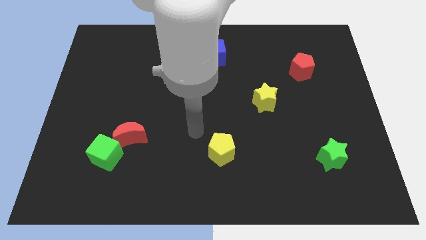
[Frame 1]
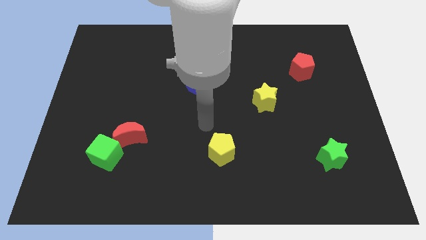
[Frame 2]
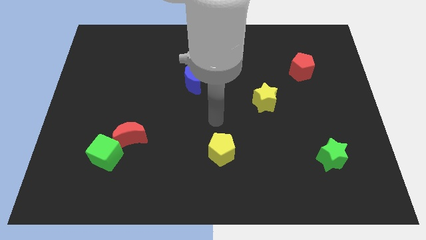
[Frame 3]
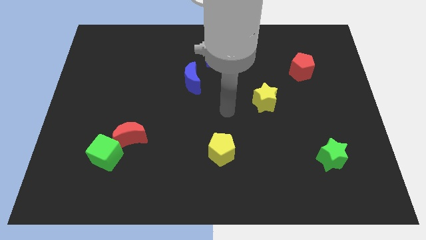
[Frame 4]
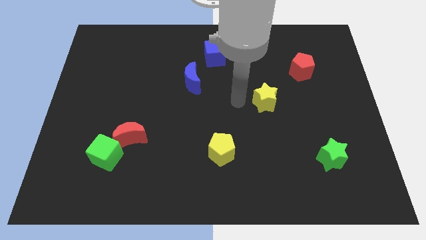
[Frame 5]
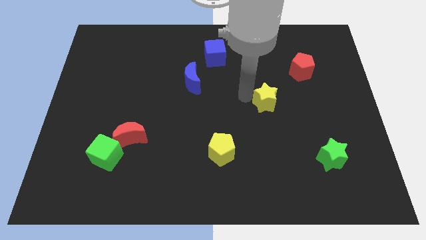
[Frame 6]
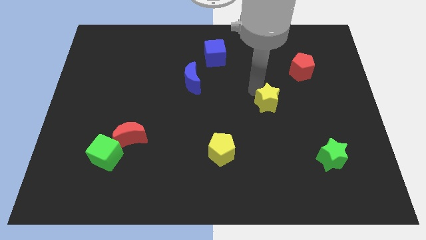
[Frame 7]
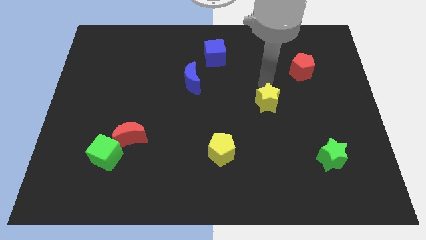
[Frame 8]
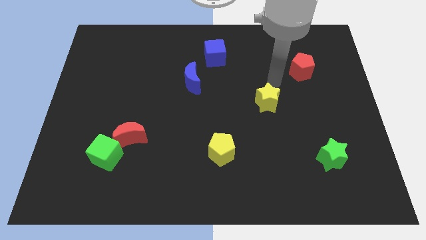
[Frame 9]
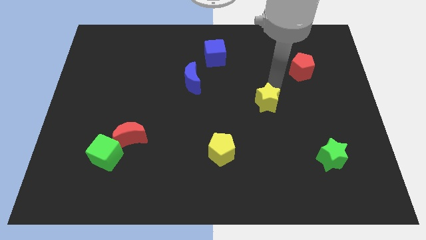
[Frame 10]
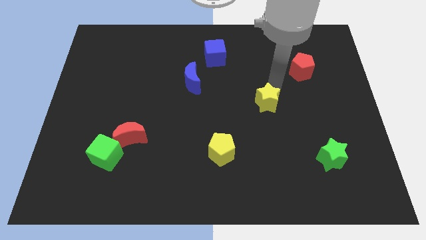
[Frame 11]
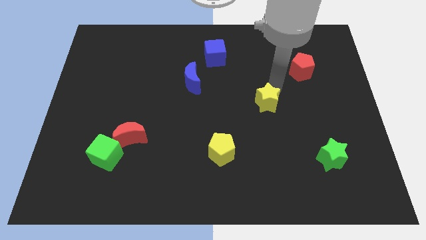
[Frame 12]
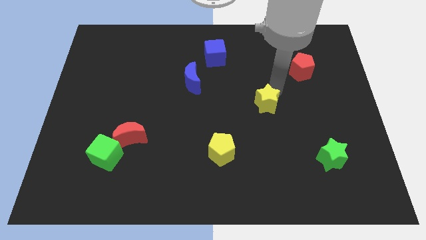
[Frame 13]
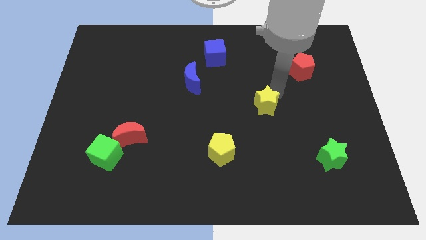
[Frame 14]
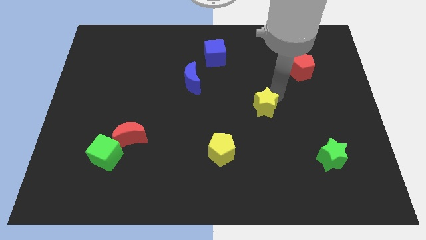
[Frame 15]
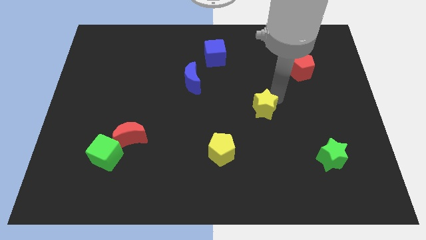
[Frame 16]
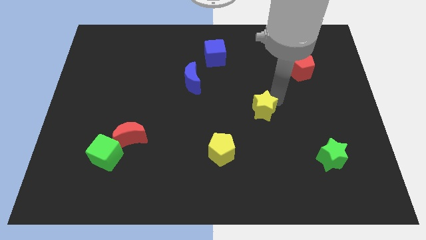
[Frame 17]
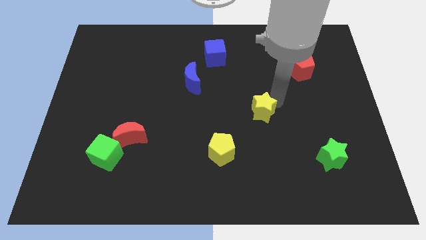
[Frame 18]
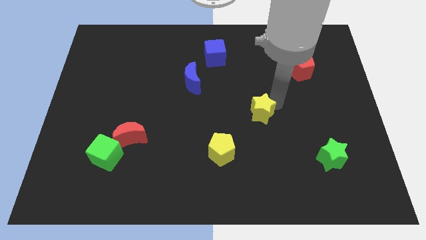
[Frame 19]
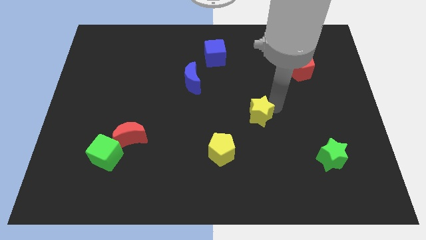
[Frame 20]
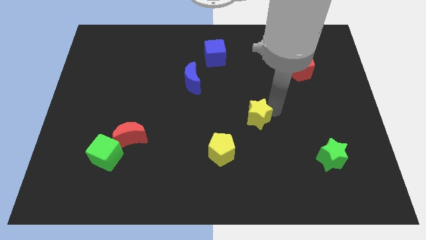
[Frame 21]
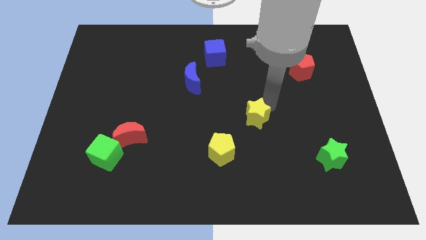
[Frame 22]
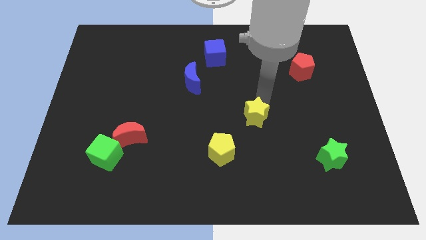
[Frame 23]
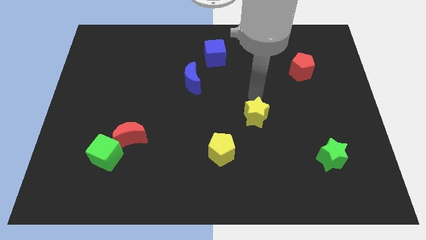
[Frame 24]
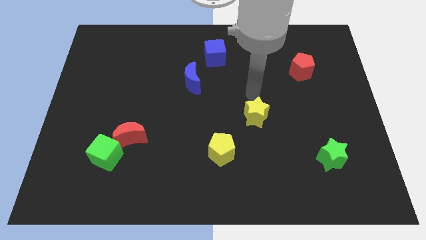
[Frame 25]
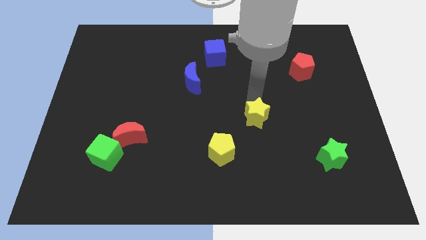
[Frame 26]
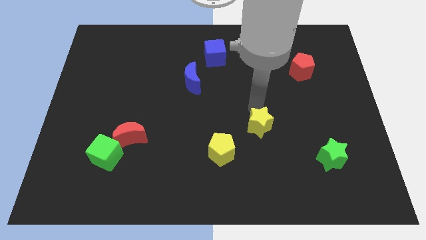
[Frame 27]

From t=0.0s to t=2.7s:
slightly slide the yellow star down

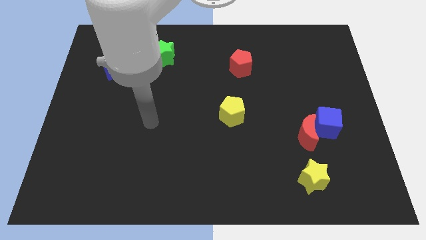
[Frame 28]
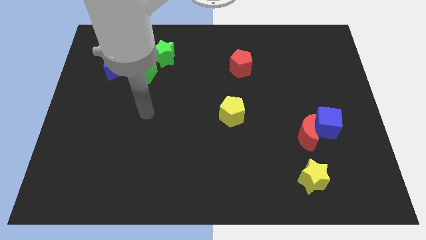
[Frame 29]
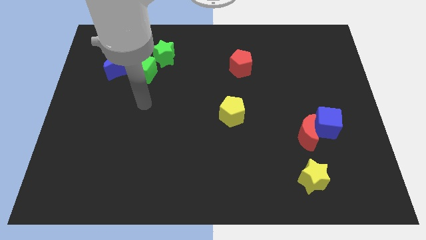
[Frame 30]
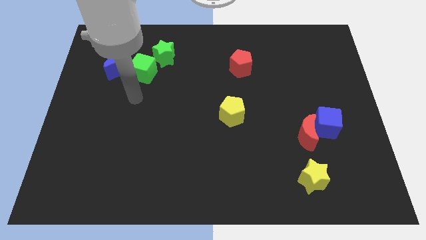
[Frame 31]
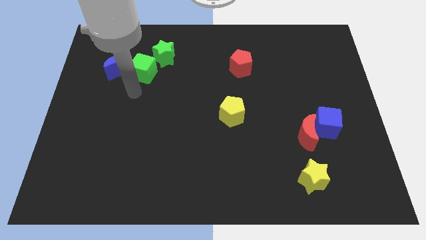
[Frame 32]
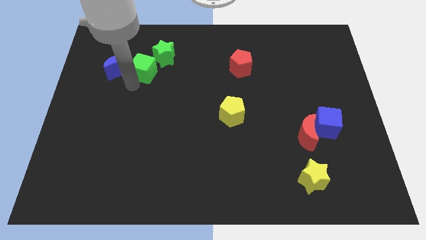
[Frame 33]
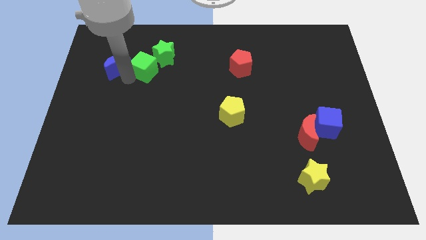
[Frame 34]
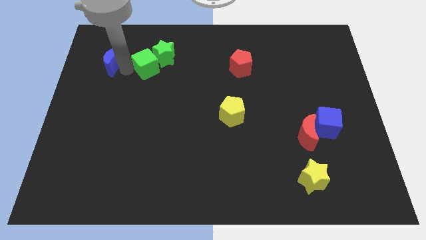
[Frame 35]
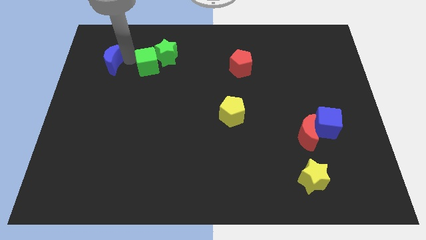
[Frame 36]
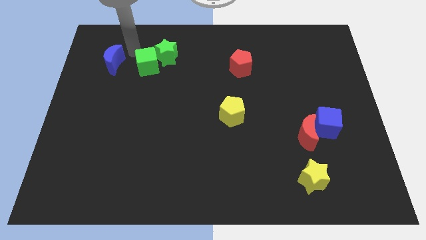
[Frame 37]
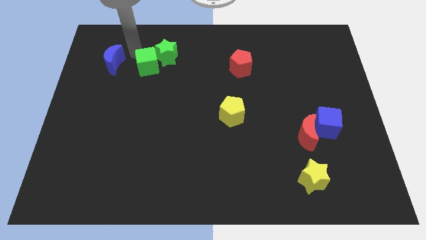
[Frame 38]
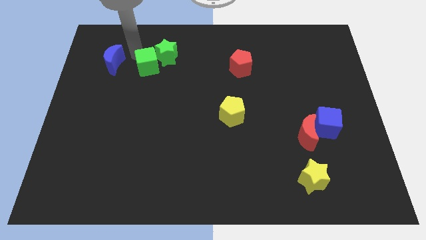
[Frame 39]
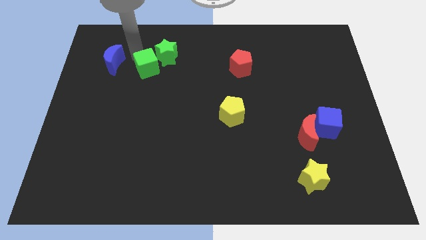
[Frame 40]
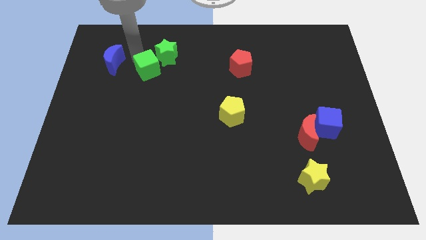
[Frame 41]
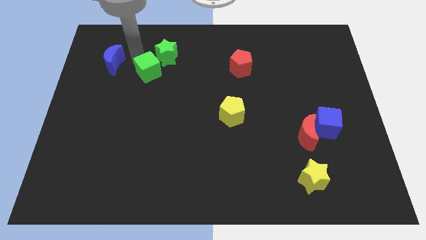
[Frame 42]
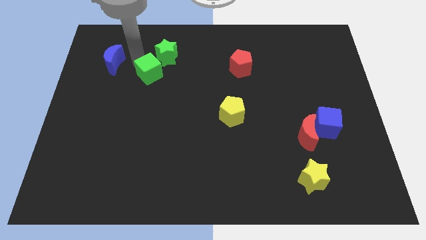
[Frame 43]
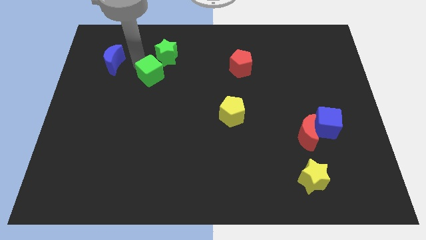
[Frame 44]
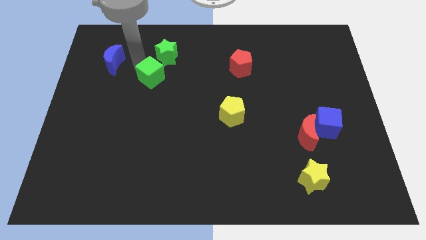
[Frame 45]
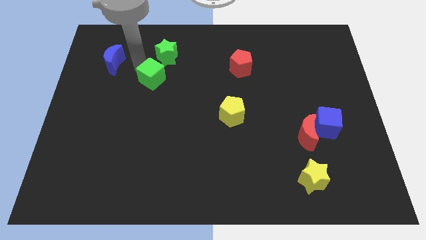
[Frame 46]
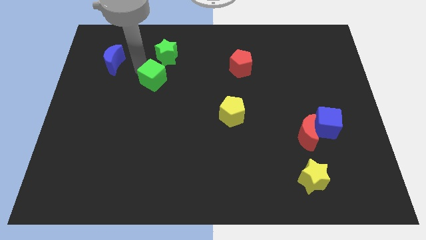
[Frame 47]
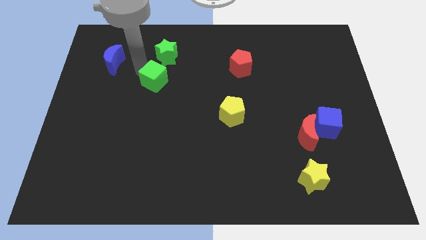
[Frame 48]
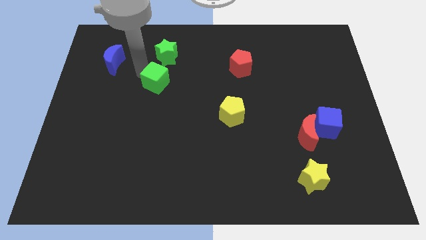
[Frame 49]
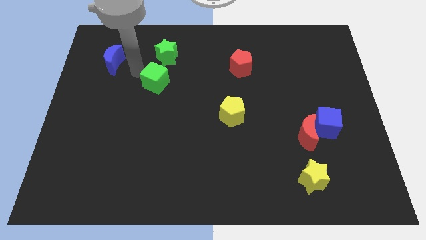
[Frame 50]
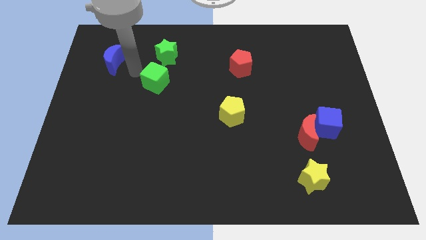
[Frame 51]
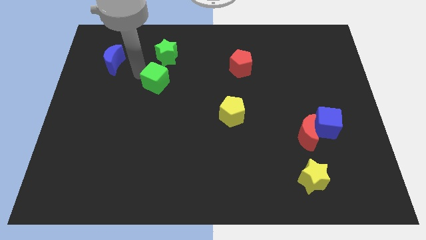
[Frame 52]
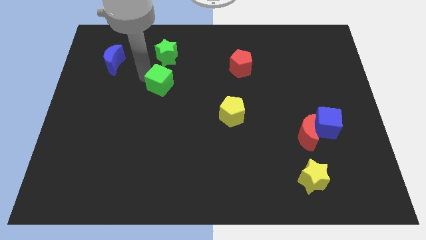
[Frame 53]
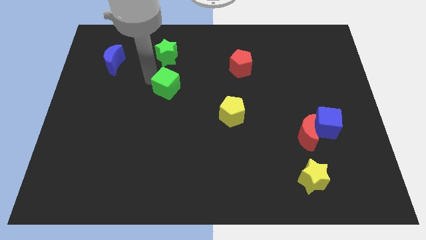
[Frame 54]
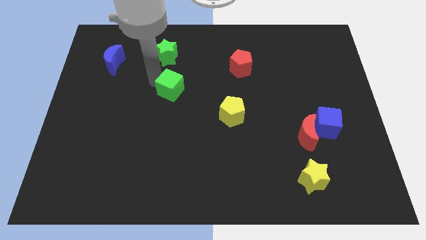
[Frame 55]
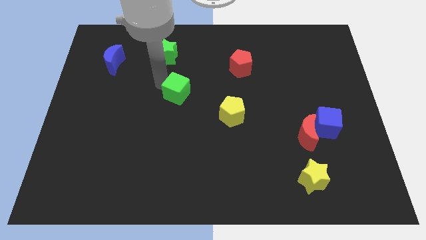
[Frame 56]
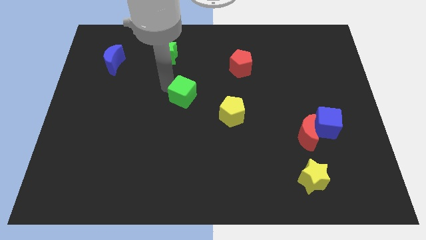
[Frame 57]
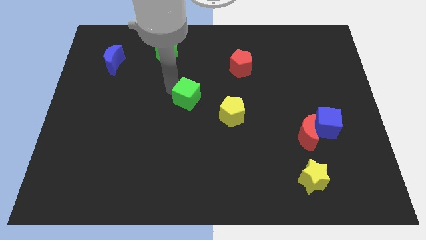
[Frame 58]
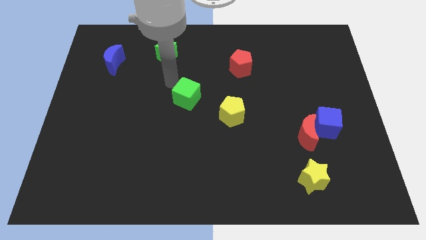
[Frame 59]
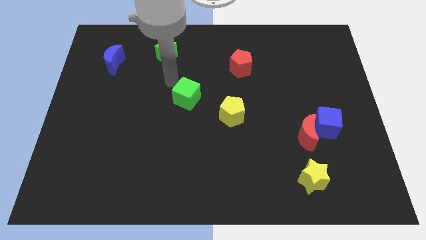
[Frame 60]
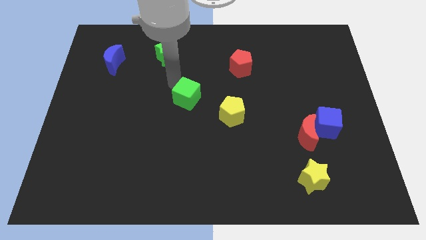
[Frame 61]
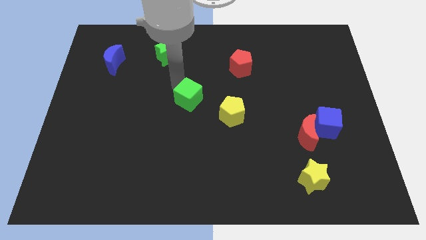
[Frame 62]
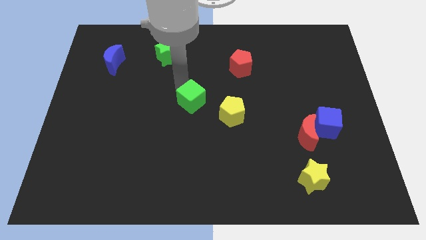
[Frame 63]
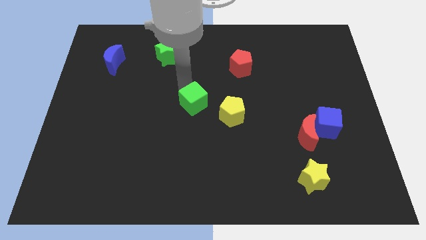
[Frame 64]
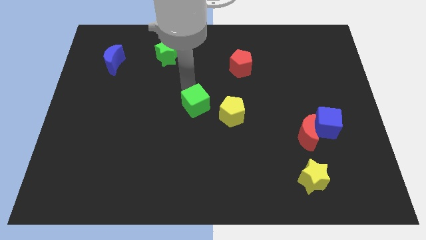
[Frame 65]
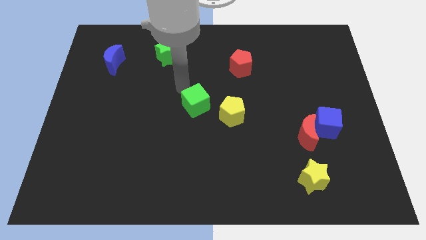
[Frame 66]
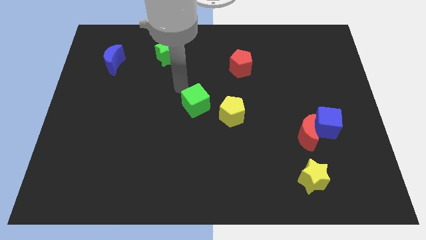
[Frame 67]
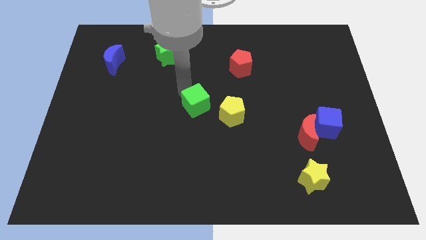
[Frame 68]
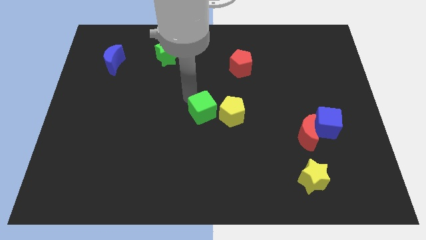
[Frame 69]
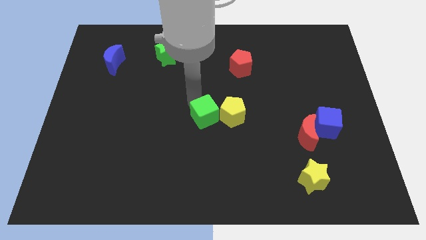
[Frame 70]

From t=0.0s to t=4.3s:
move the green cube diagonally down and right

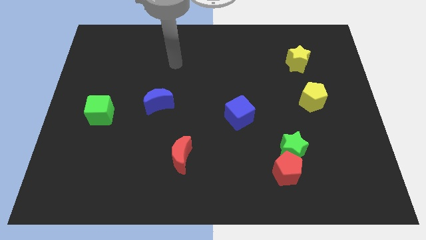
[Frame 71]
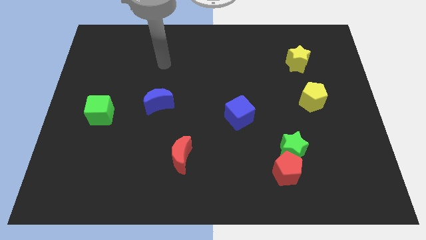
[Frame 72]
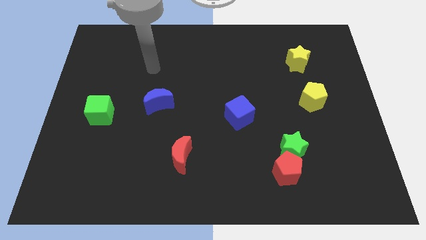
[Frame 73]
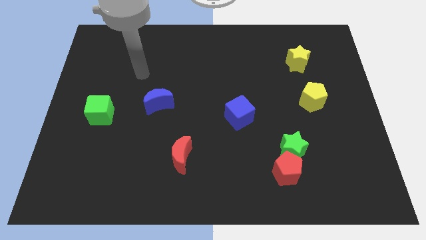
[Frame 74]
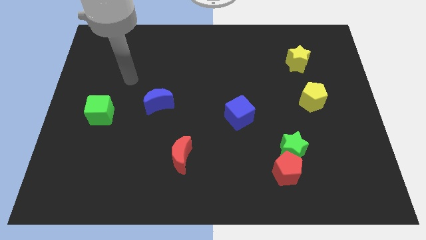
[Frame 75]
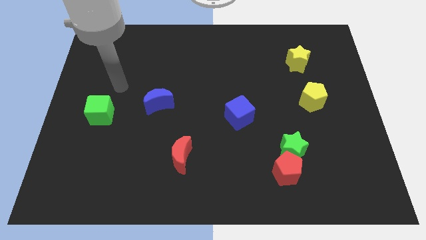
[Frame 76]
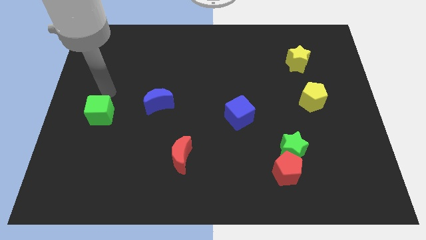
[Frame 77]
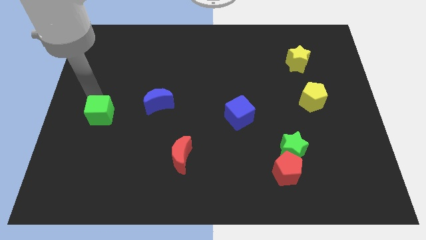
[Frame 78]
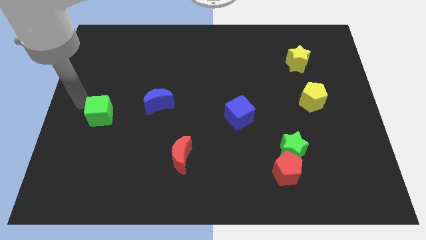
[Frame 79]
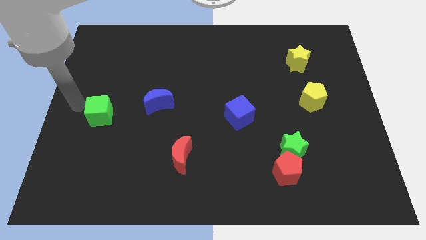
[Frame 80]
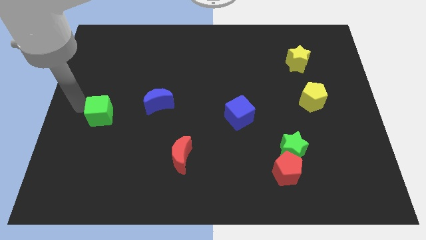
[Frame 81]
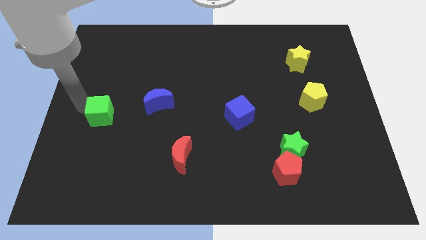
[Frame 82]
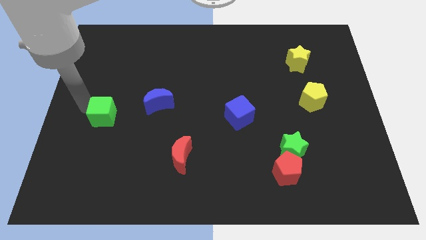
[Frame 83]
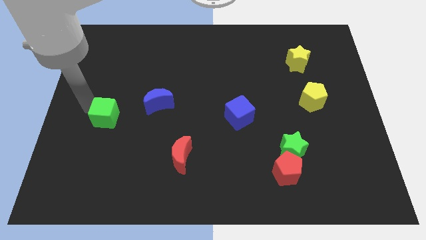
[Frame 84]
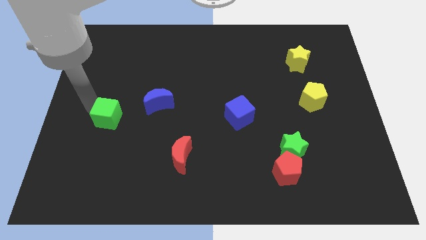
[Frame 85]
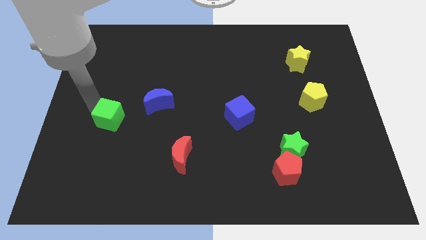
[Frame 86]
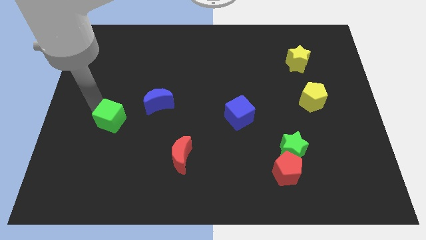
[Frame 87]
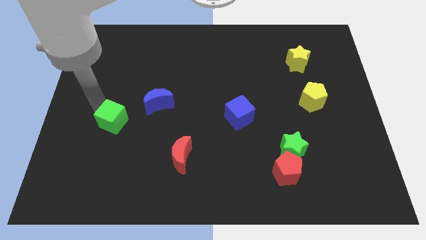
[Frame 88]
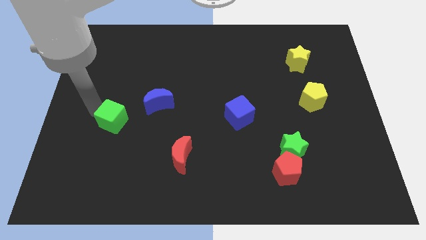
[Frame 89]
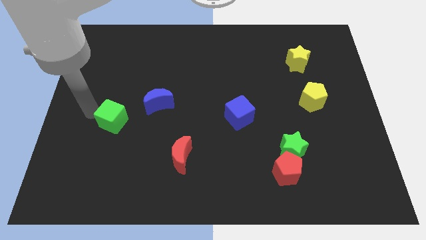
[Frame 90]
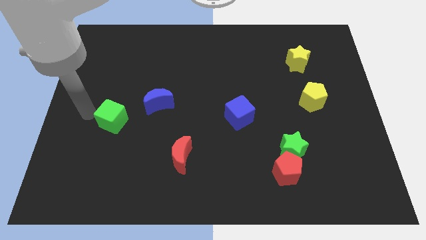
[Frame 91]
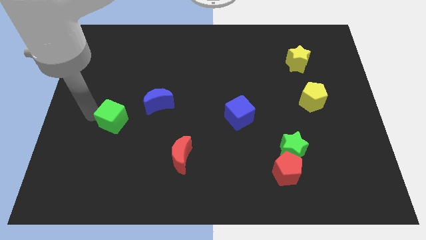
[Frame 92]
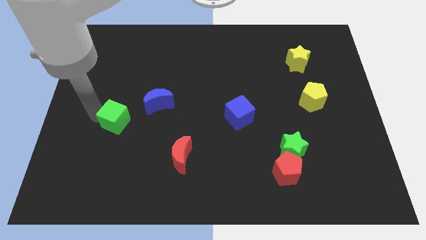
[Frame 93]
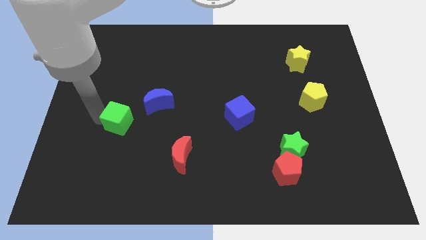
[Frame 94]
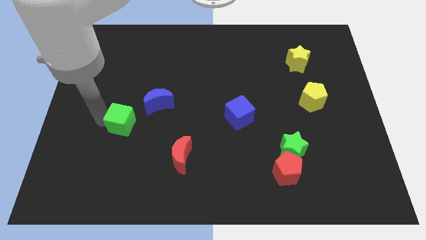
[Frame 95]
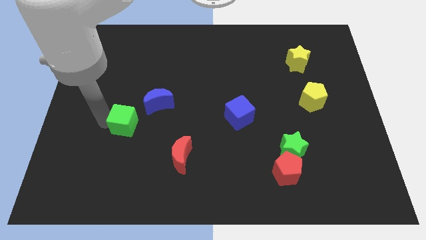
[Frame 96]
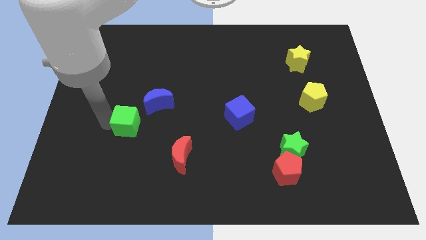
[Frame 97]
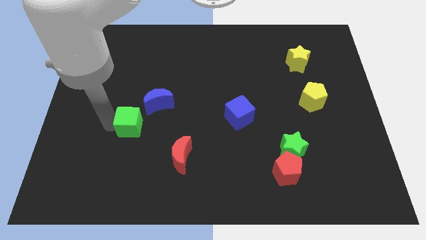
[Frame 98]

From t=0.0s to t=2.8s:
slightly slide the green cube to the right
